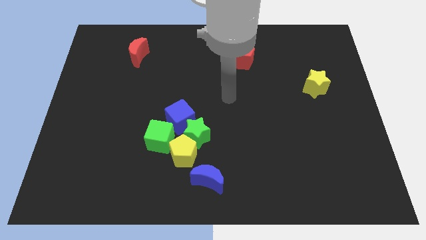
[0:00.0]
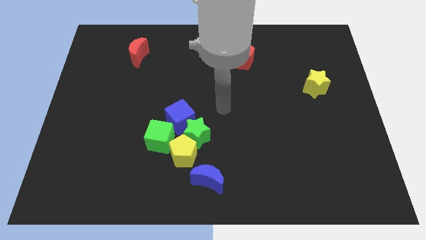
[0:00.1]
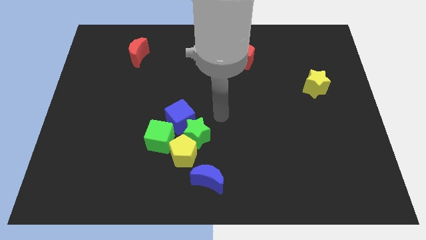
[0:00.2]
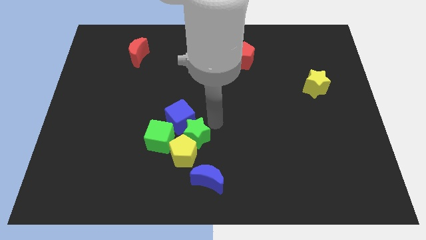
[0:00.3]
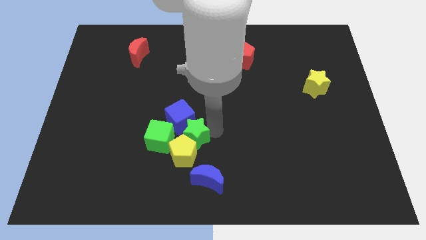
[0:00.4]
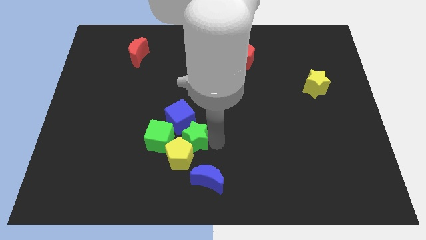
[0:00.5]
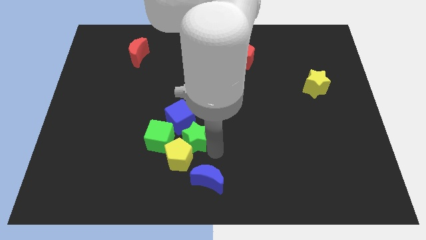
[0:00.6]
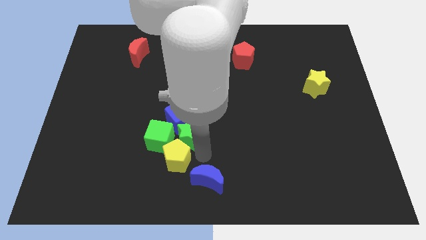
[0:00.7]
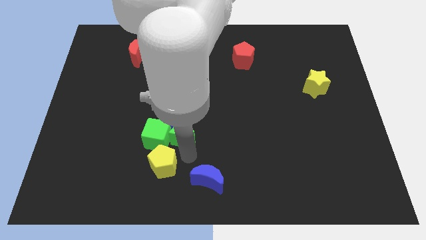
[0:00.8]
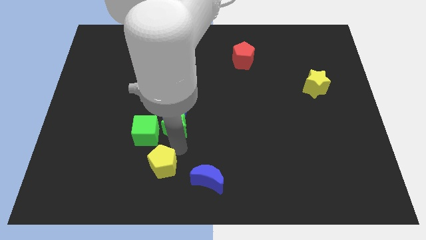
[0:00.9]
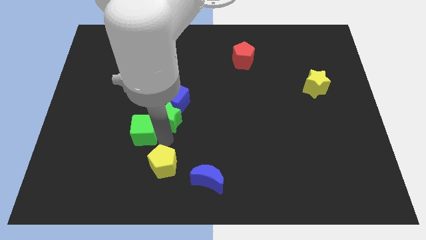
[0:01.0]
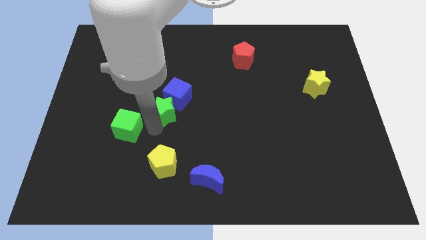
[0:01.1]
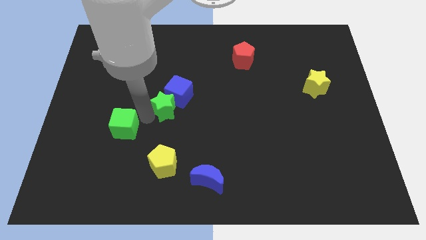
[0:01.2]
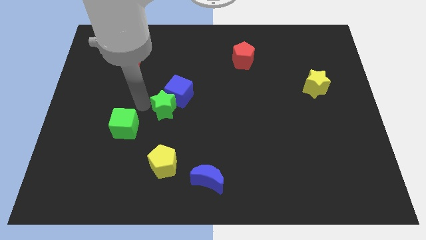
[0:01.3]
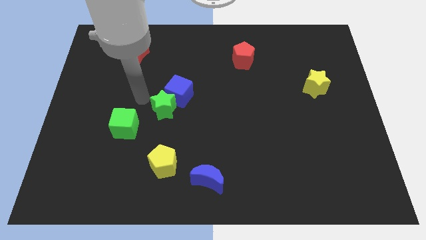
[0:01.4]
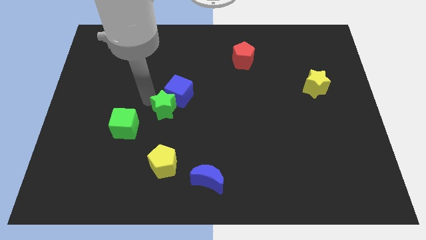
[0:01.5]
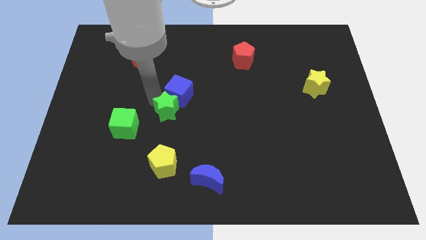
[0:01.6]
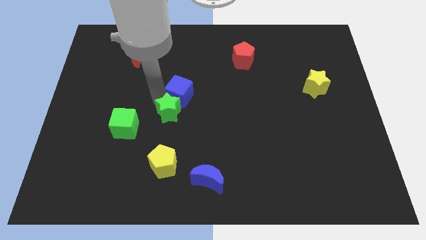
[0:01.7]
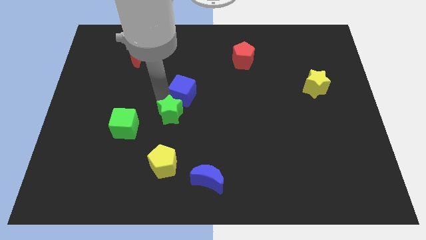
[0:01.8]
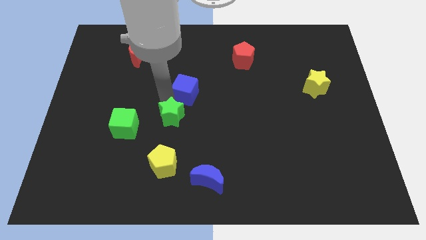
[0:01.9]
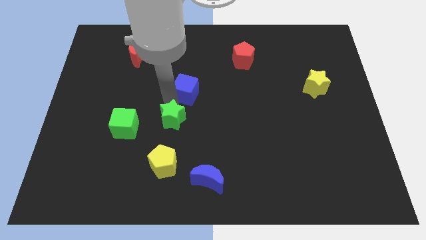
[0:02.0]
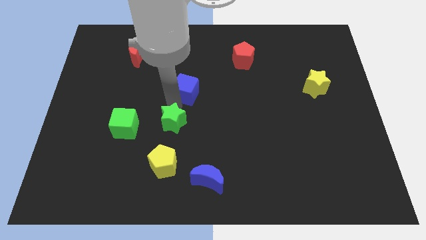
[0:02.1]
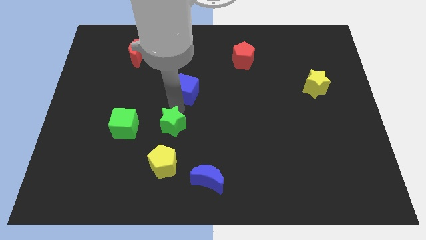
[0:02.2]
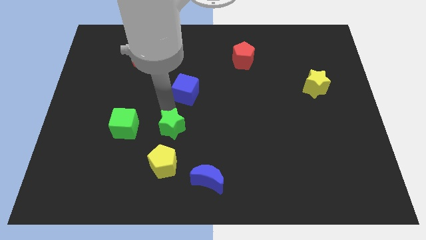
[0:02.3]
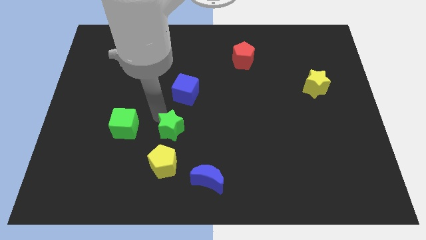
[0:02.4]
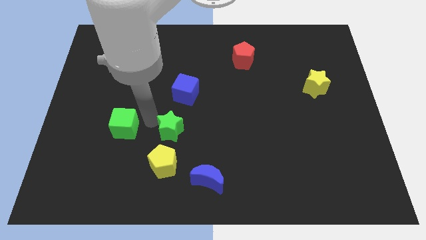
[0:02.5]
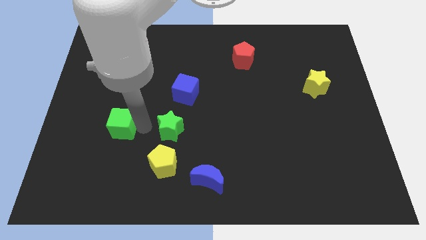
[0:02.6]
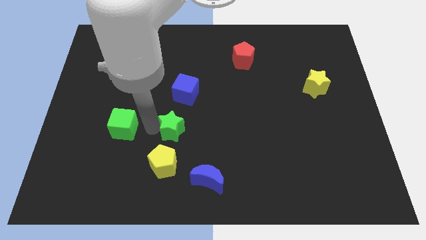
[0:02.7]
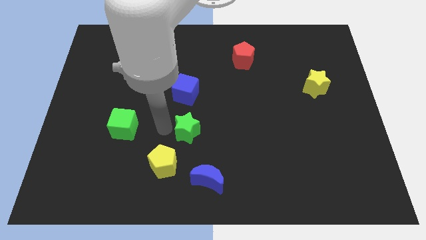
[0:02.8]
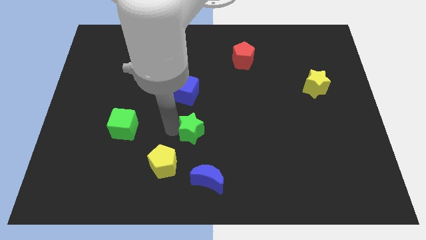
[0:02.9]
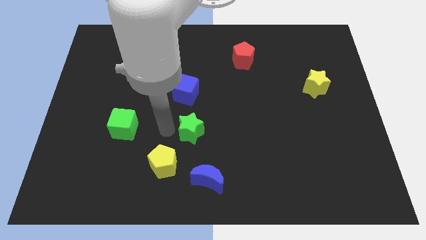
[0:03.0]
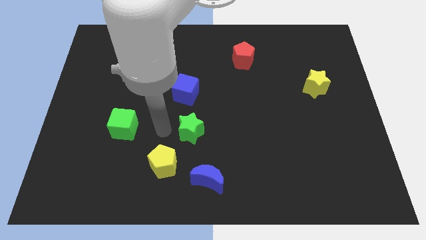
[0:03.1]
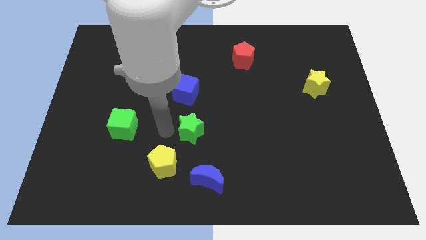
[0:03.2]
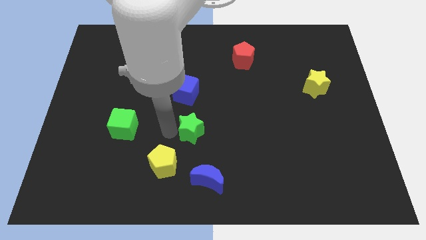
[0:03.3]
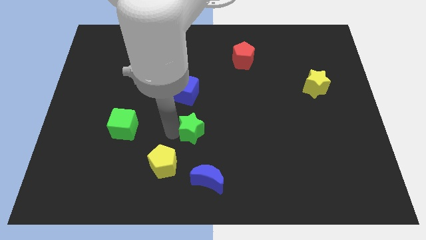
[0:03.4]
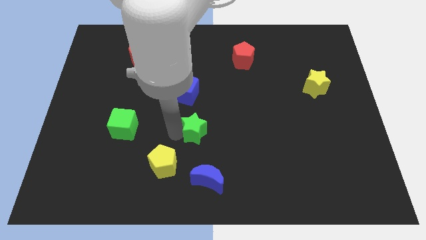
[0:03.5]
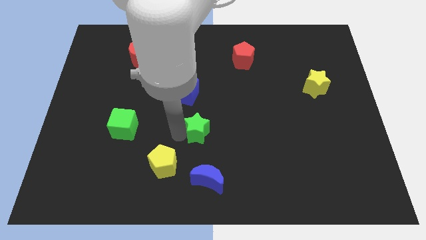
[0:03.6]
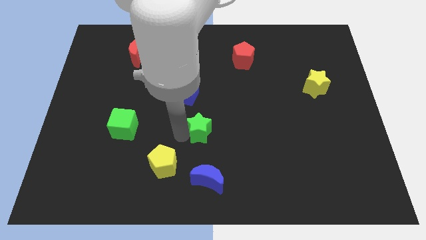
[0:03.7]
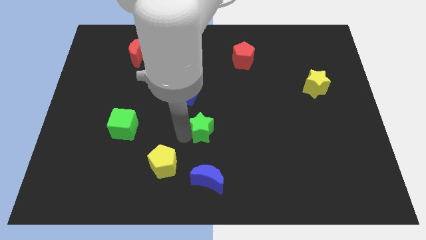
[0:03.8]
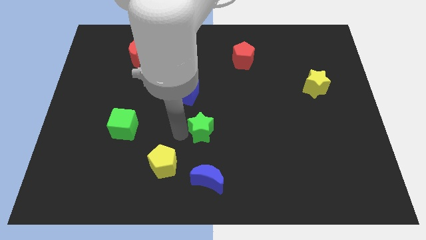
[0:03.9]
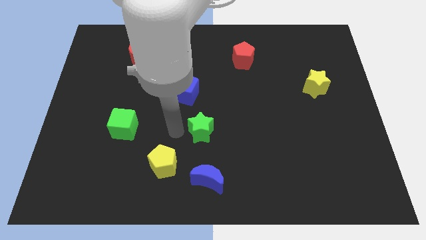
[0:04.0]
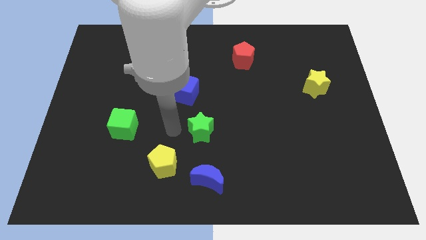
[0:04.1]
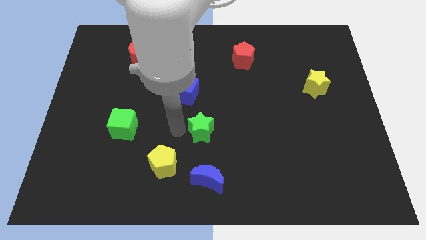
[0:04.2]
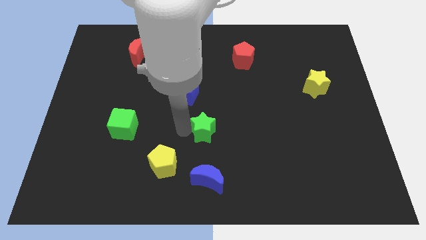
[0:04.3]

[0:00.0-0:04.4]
move the green star away from the yellow pentagon, blue cube, and green cube

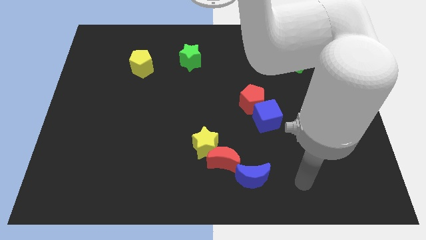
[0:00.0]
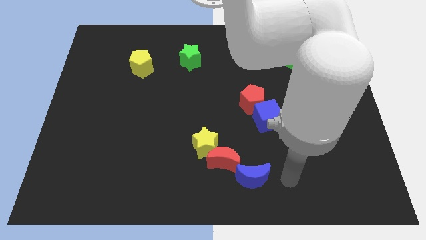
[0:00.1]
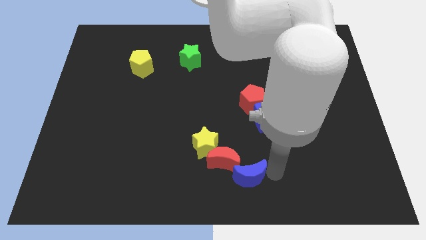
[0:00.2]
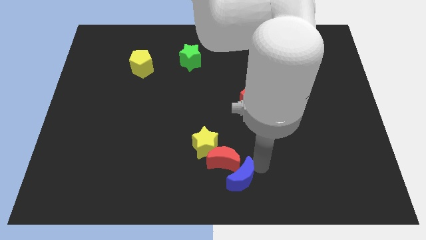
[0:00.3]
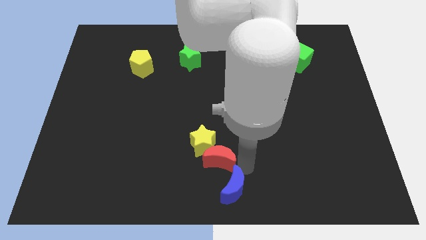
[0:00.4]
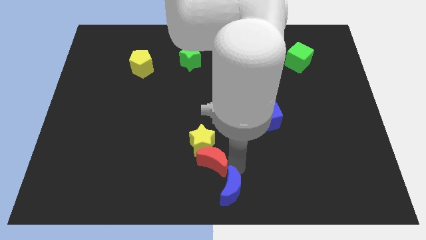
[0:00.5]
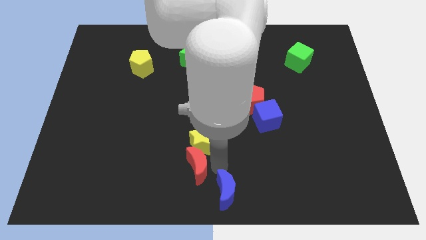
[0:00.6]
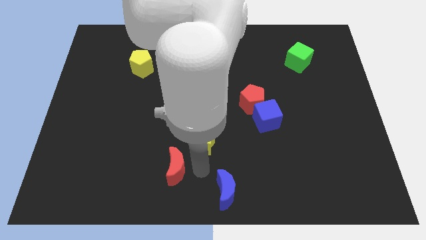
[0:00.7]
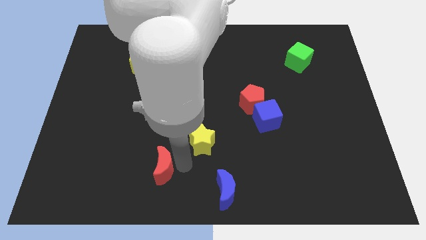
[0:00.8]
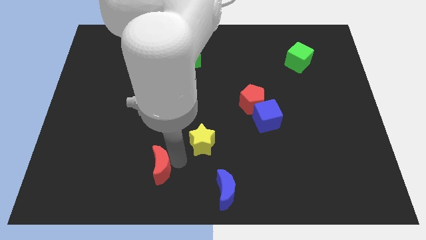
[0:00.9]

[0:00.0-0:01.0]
pull the yellow star apart from the red moon

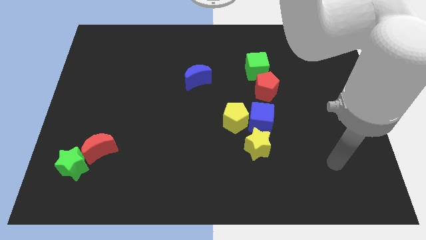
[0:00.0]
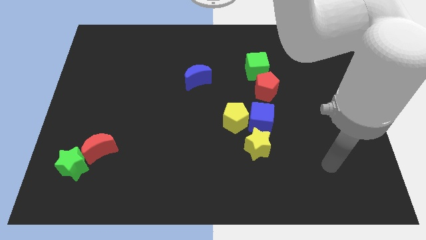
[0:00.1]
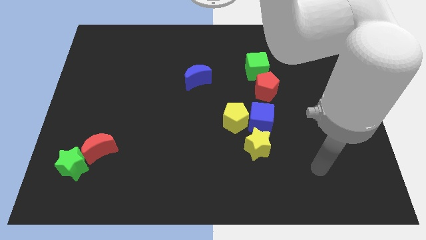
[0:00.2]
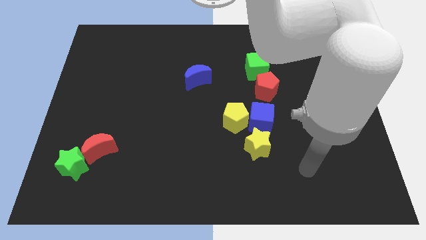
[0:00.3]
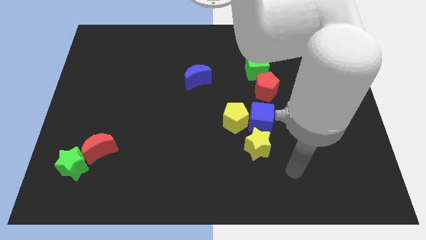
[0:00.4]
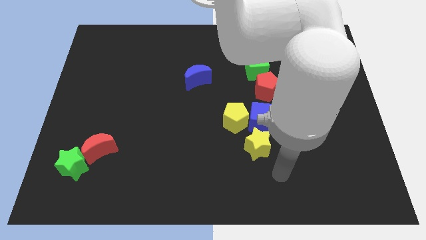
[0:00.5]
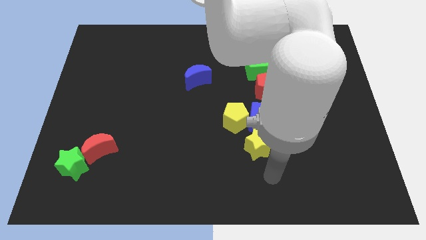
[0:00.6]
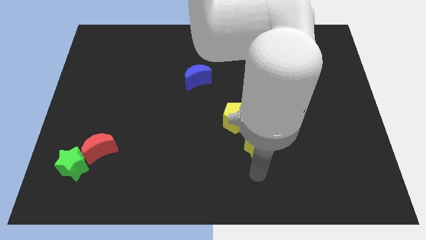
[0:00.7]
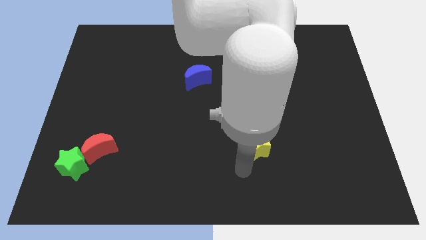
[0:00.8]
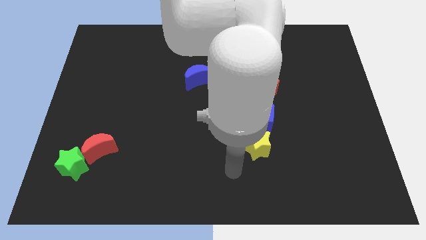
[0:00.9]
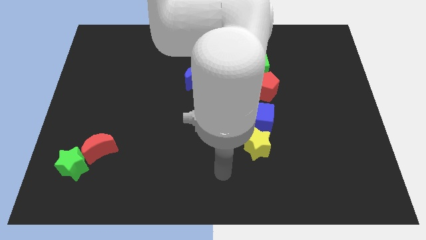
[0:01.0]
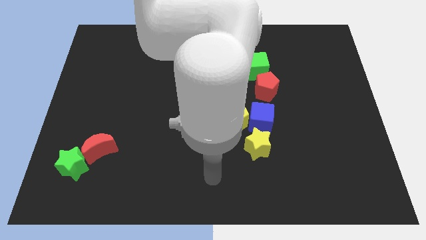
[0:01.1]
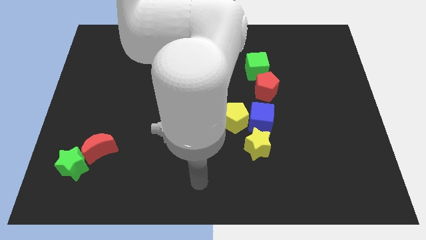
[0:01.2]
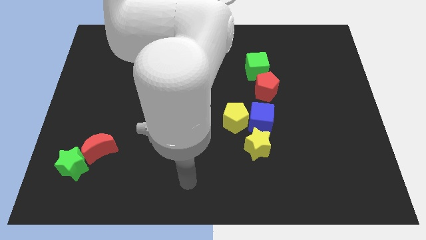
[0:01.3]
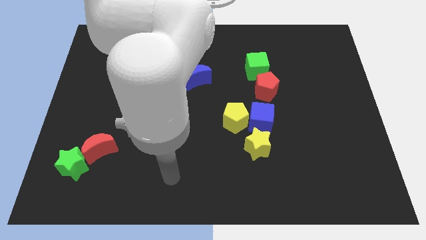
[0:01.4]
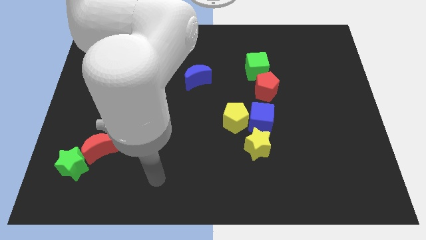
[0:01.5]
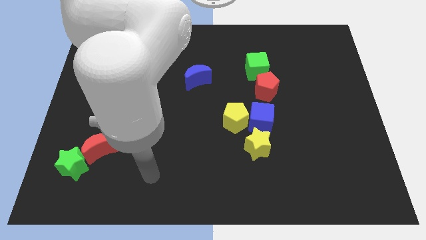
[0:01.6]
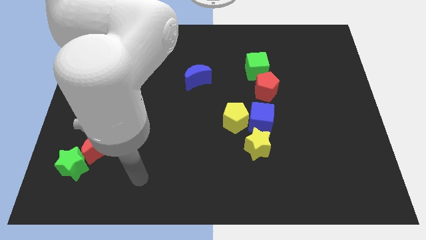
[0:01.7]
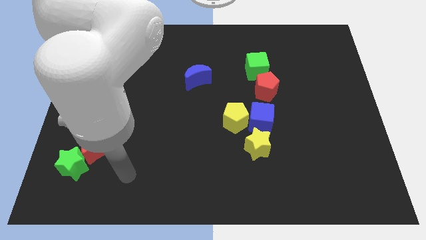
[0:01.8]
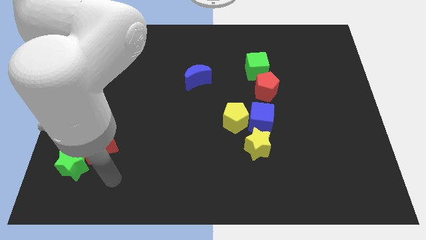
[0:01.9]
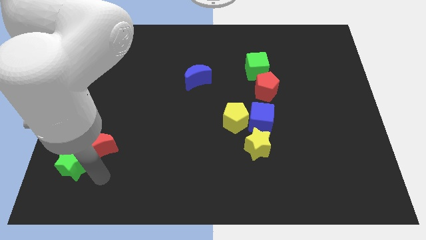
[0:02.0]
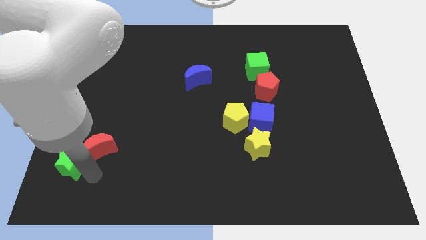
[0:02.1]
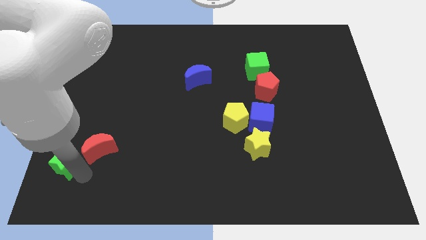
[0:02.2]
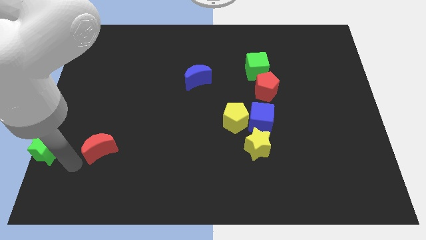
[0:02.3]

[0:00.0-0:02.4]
separate the red moon from the green star

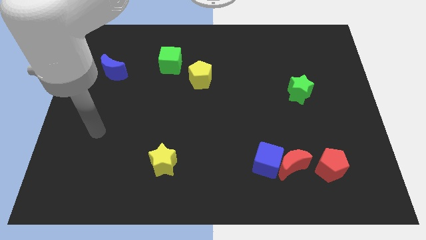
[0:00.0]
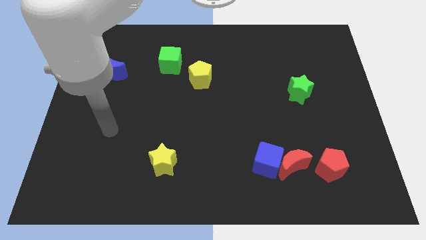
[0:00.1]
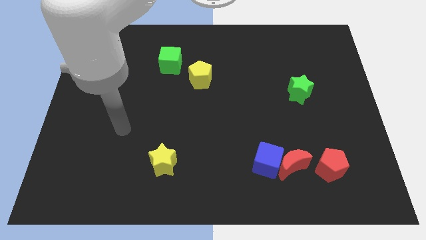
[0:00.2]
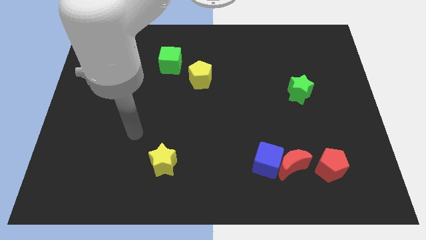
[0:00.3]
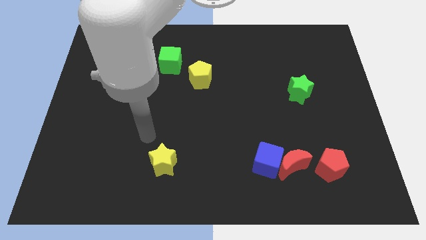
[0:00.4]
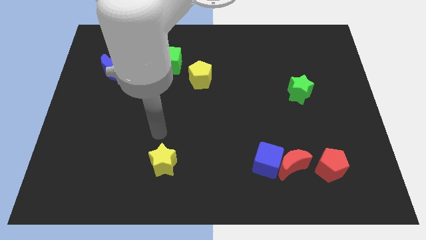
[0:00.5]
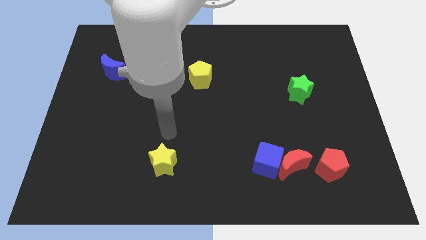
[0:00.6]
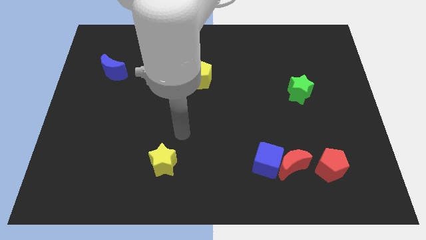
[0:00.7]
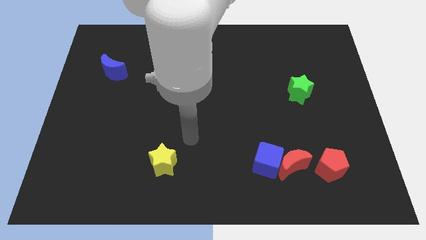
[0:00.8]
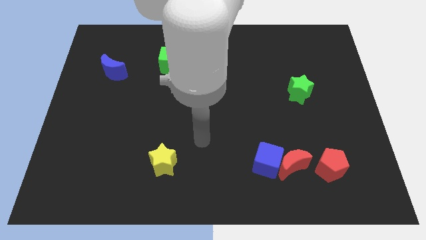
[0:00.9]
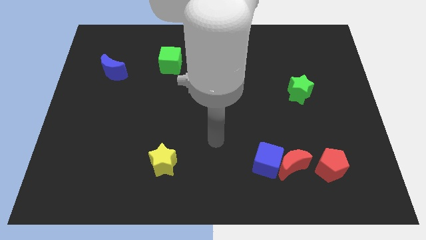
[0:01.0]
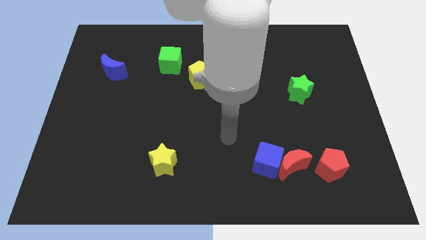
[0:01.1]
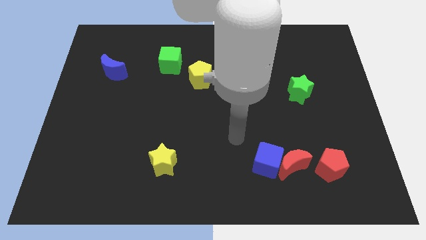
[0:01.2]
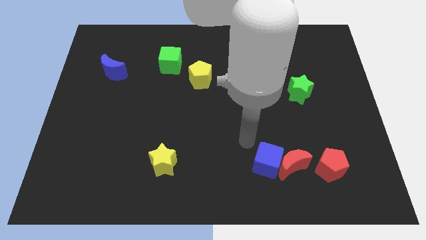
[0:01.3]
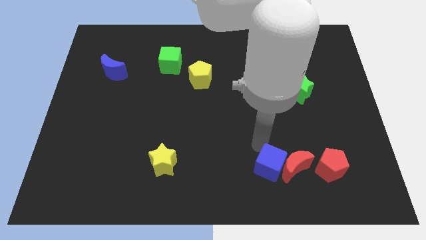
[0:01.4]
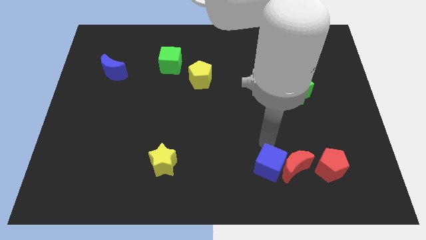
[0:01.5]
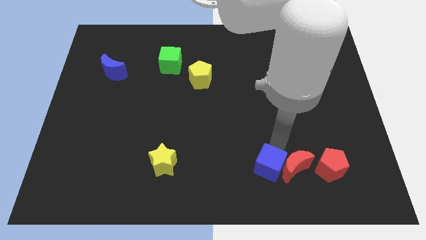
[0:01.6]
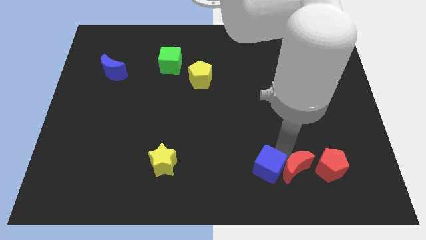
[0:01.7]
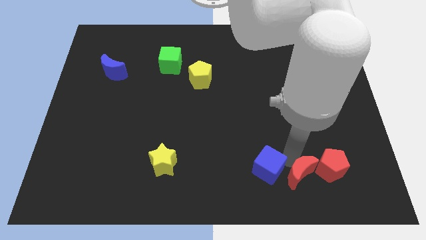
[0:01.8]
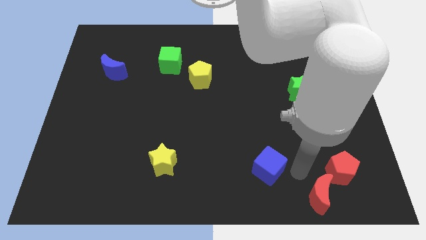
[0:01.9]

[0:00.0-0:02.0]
move the blue cube away from the red moon
